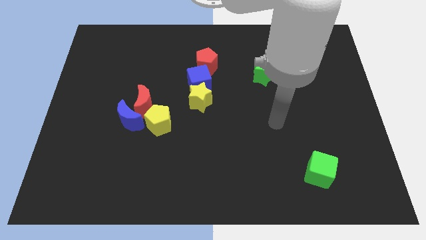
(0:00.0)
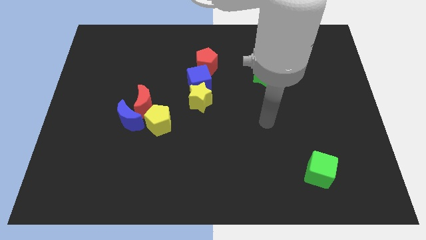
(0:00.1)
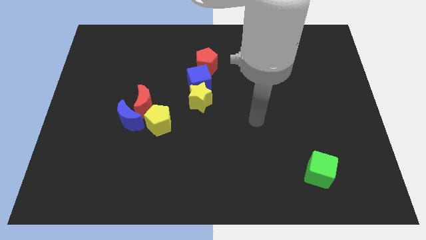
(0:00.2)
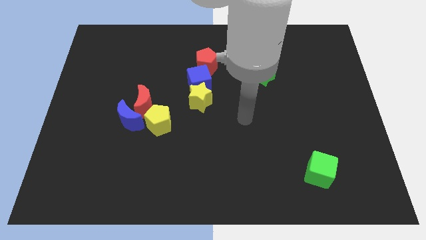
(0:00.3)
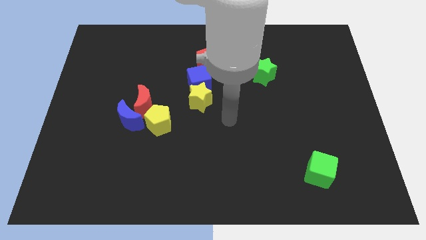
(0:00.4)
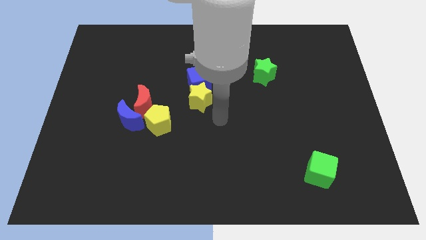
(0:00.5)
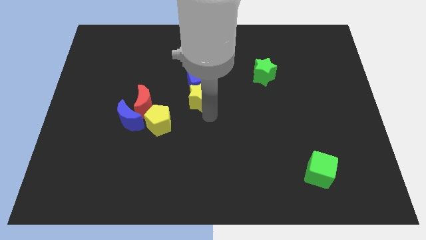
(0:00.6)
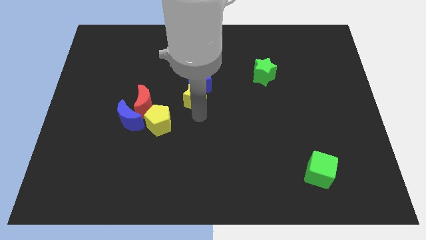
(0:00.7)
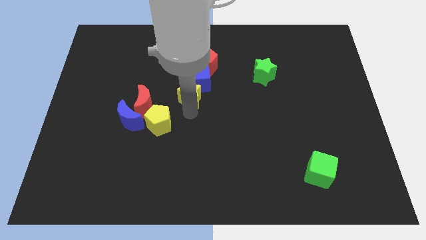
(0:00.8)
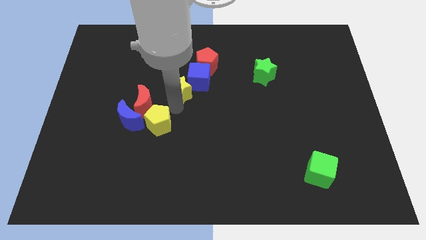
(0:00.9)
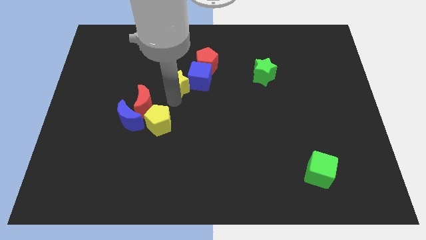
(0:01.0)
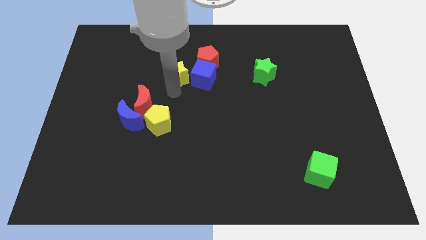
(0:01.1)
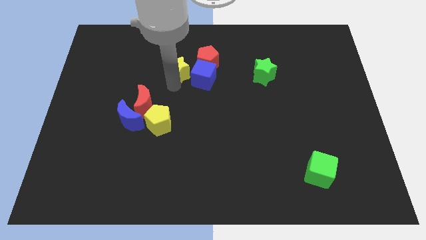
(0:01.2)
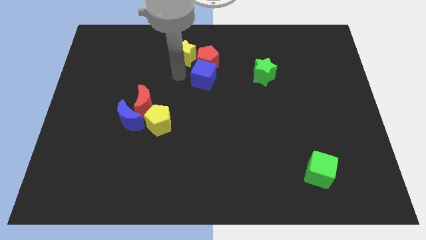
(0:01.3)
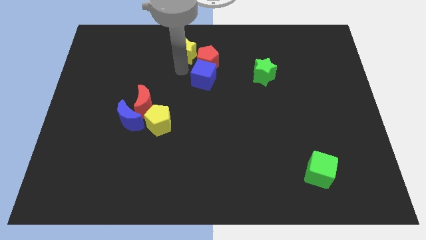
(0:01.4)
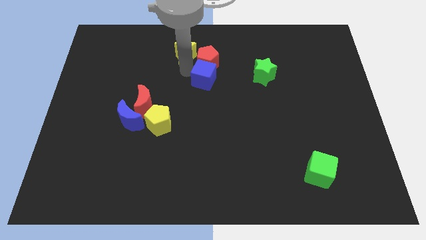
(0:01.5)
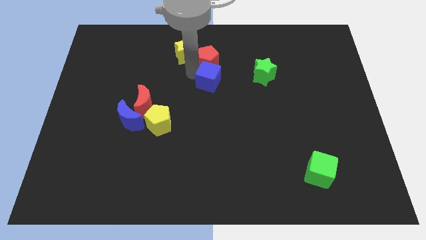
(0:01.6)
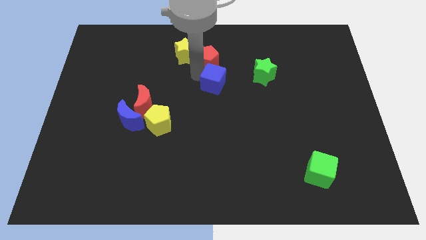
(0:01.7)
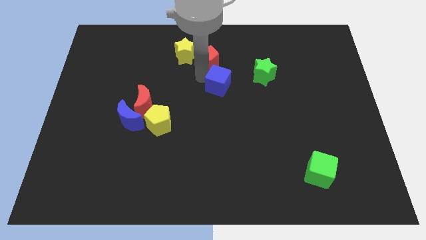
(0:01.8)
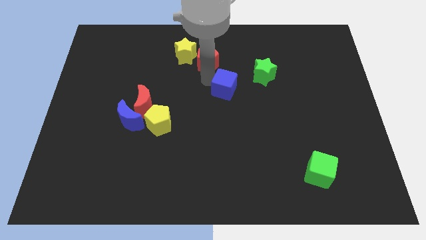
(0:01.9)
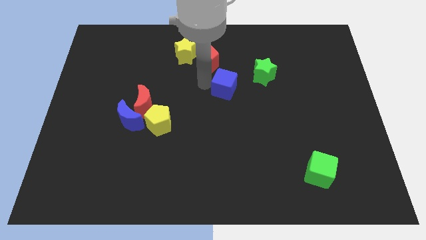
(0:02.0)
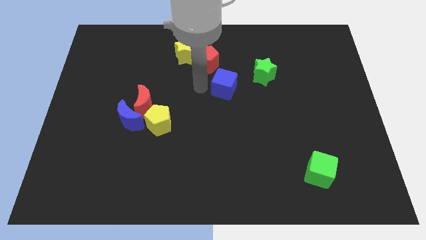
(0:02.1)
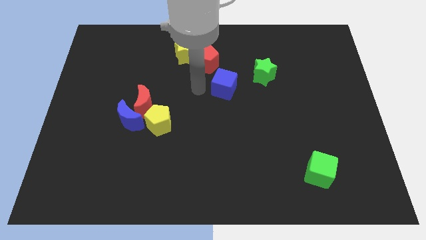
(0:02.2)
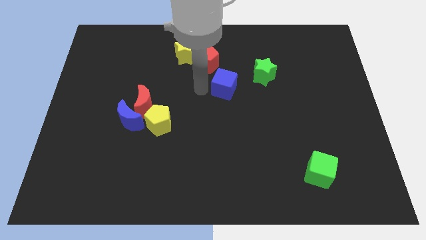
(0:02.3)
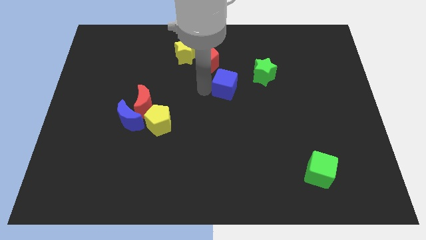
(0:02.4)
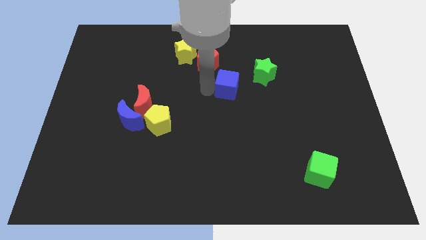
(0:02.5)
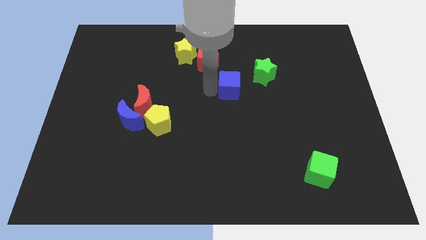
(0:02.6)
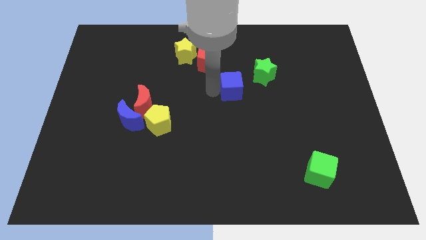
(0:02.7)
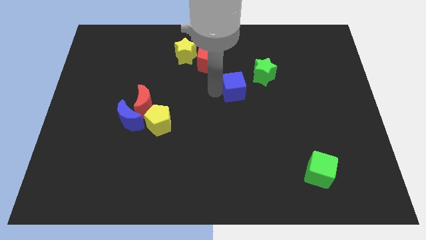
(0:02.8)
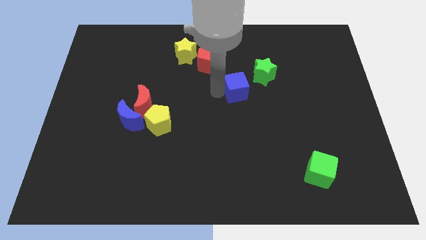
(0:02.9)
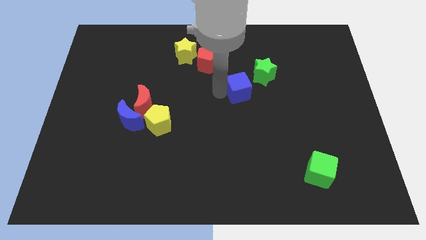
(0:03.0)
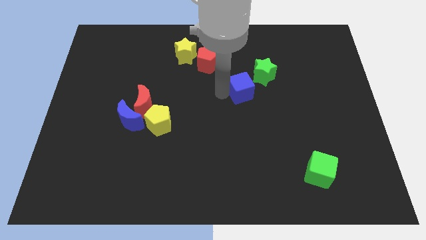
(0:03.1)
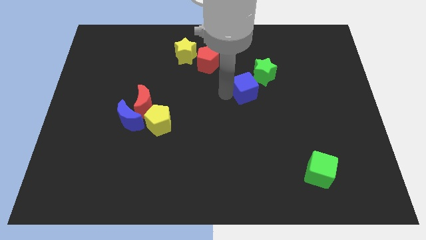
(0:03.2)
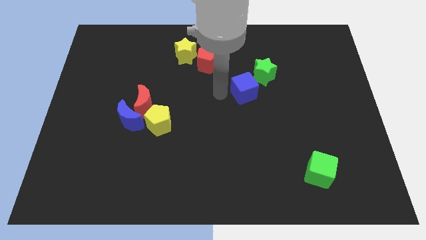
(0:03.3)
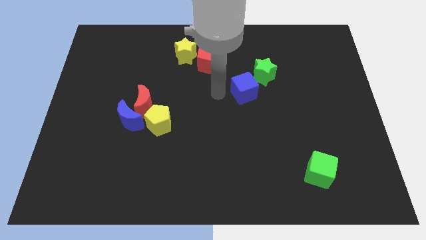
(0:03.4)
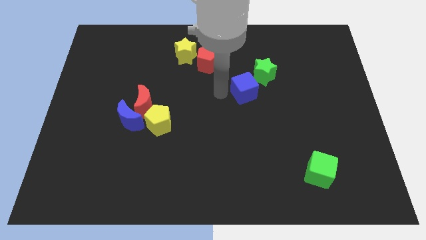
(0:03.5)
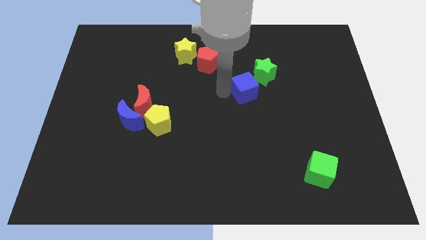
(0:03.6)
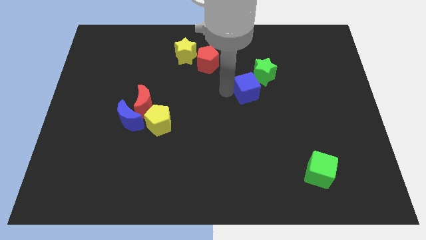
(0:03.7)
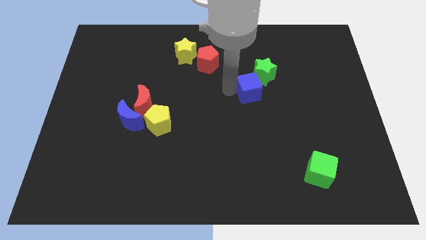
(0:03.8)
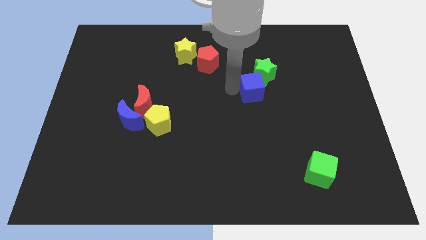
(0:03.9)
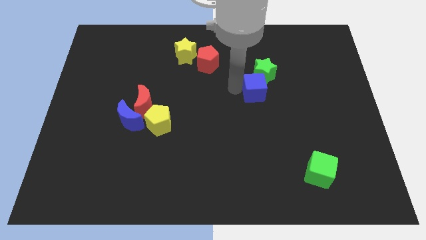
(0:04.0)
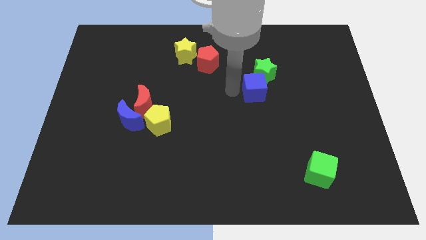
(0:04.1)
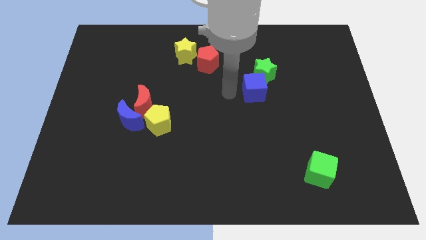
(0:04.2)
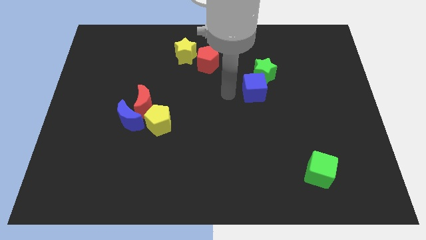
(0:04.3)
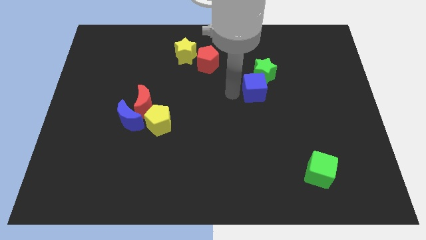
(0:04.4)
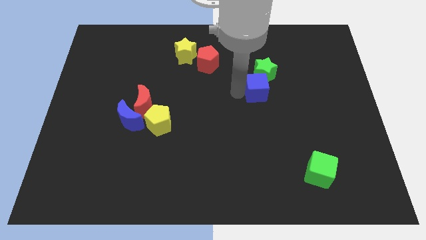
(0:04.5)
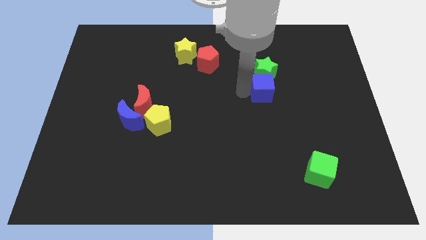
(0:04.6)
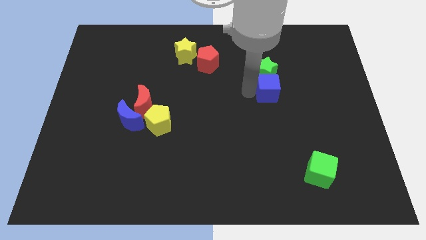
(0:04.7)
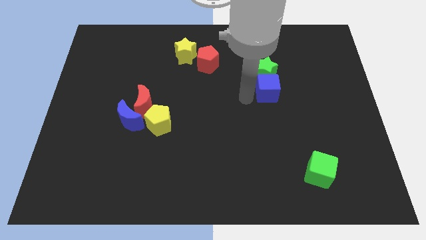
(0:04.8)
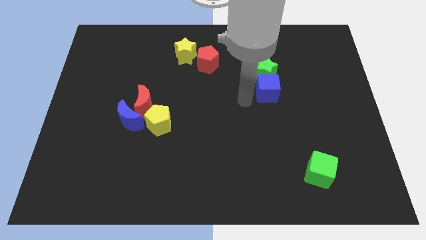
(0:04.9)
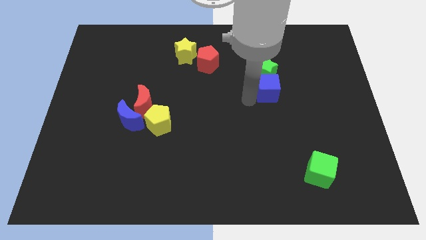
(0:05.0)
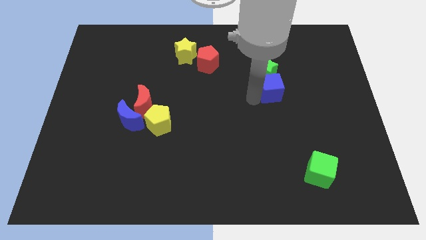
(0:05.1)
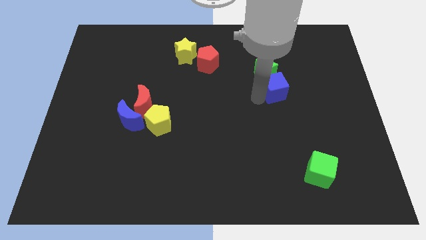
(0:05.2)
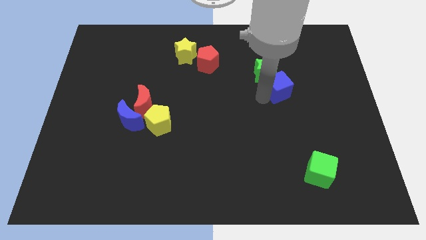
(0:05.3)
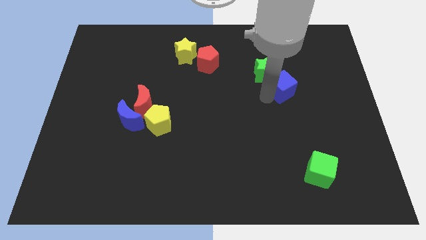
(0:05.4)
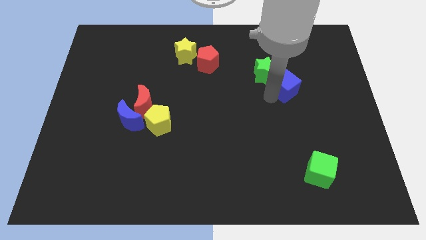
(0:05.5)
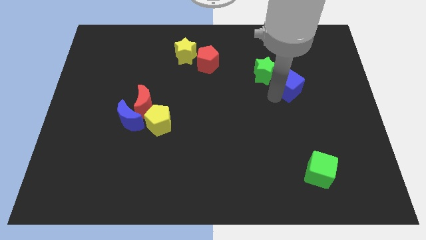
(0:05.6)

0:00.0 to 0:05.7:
slide the blue cube right of the green star

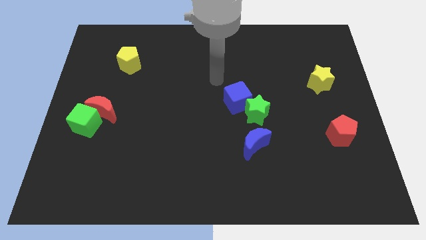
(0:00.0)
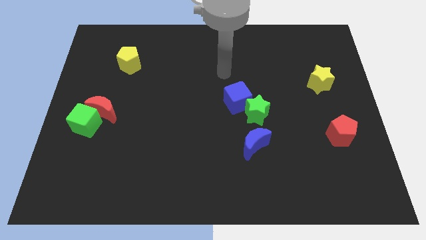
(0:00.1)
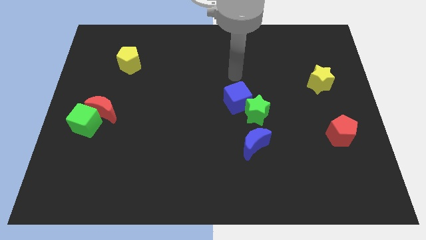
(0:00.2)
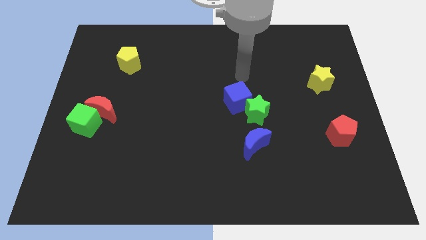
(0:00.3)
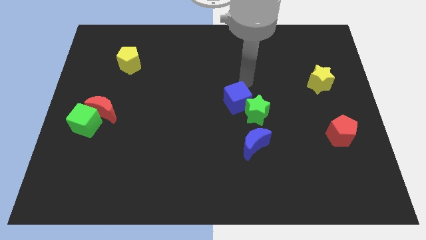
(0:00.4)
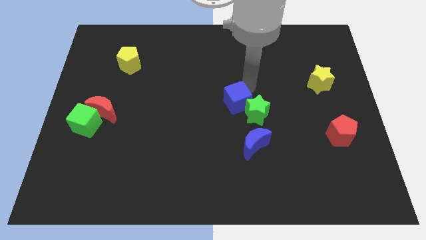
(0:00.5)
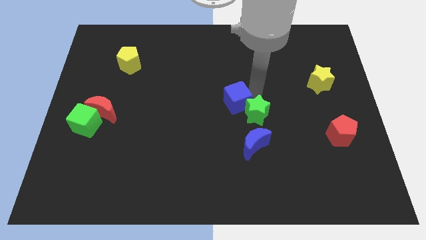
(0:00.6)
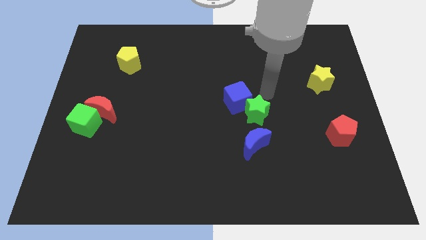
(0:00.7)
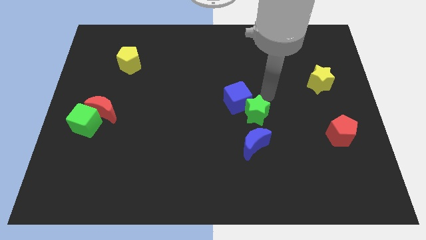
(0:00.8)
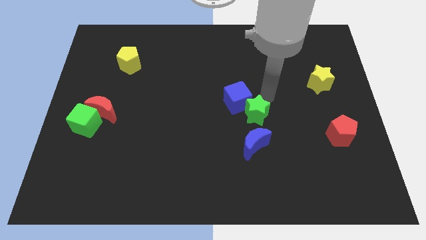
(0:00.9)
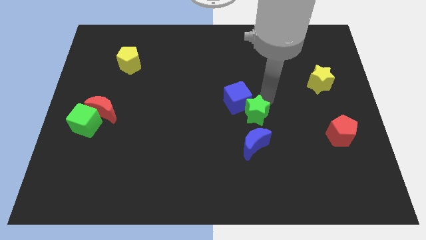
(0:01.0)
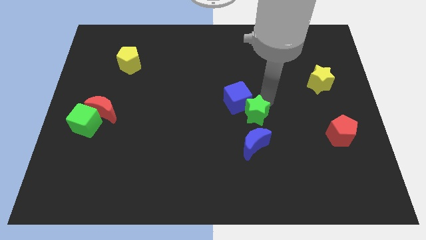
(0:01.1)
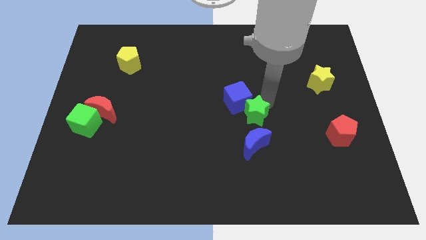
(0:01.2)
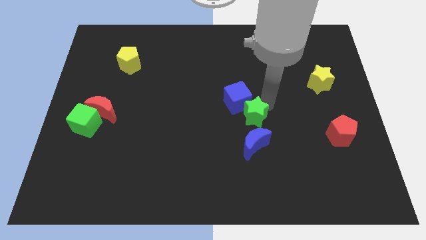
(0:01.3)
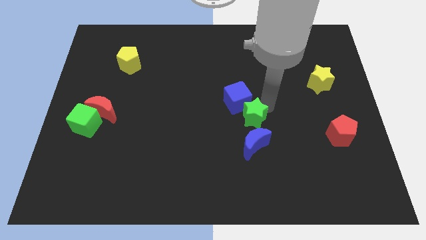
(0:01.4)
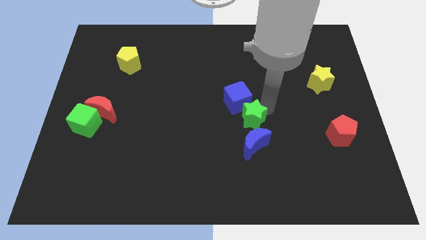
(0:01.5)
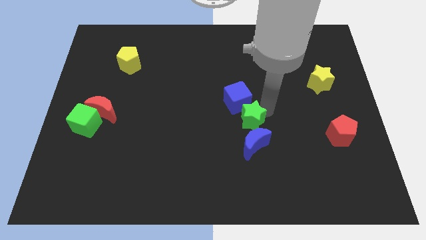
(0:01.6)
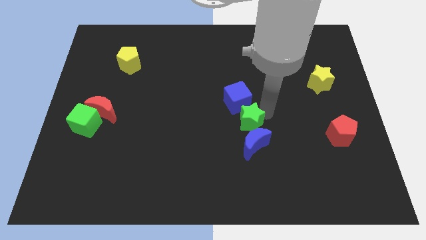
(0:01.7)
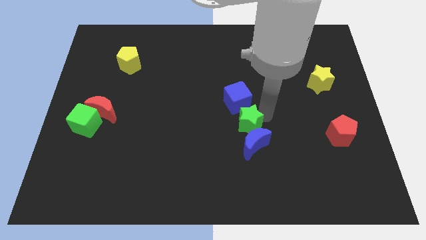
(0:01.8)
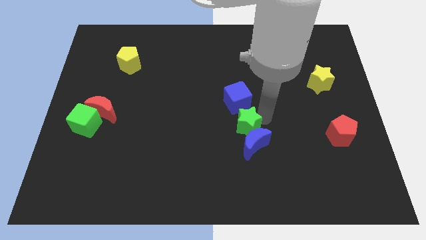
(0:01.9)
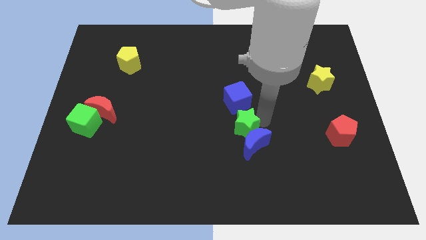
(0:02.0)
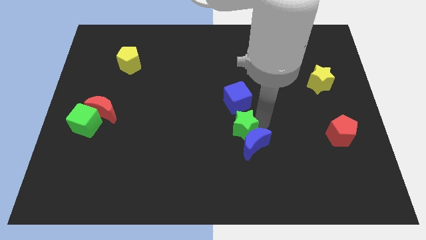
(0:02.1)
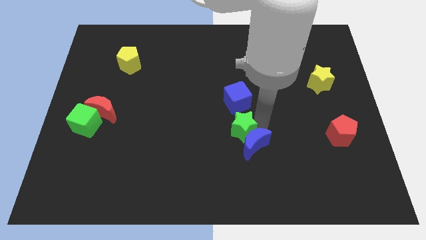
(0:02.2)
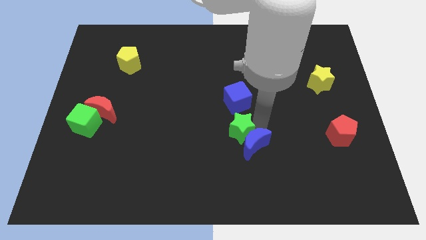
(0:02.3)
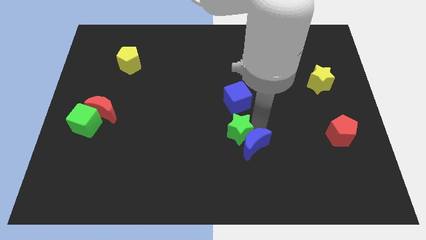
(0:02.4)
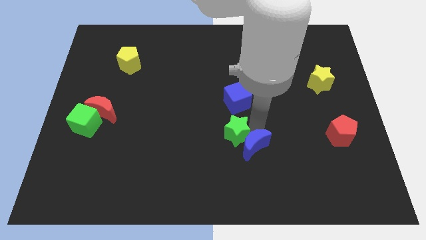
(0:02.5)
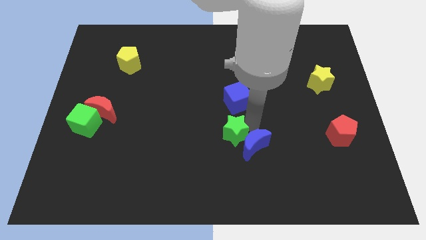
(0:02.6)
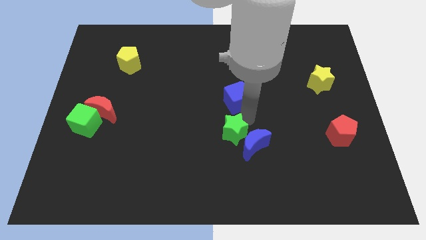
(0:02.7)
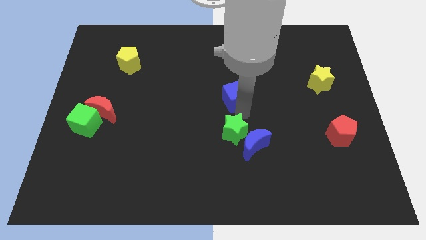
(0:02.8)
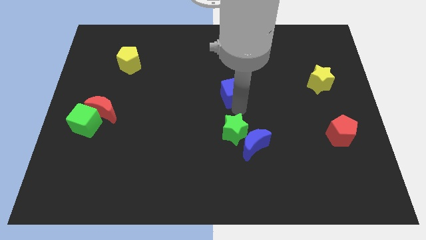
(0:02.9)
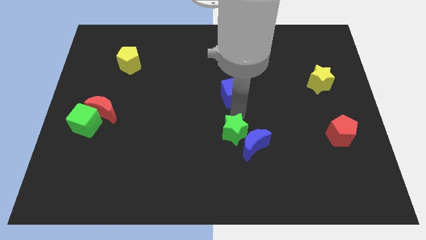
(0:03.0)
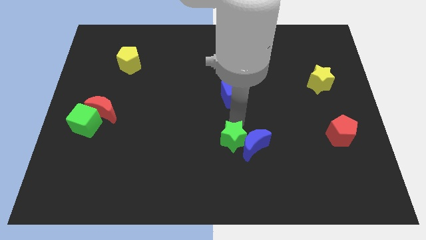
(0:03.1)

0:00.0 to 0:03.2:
push the green star to the bottom left side of the blue moon
